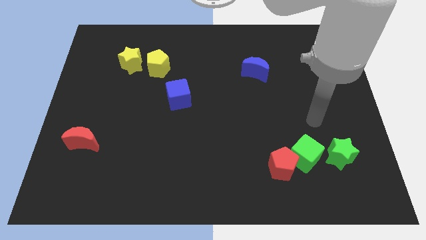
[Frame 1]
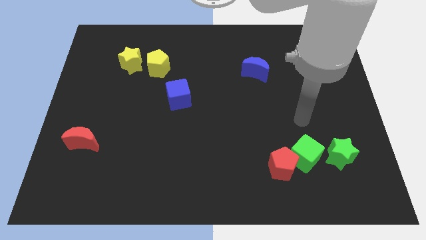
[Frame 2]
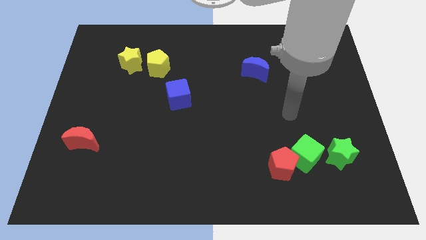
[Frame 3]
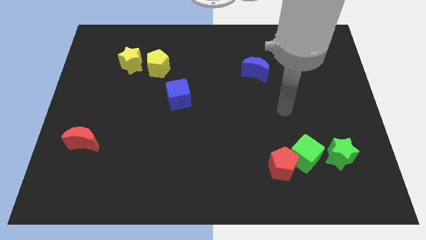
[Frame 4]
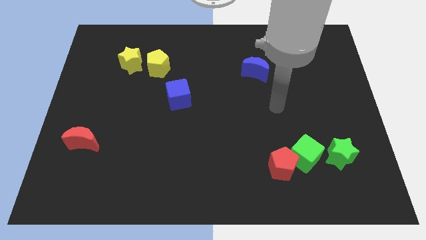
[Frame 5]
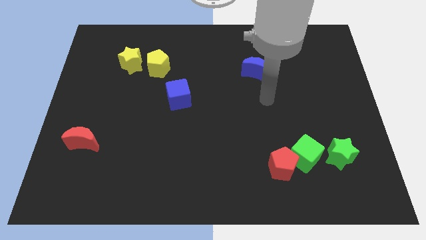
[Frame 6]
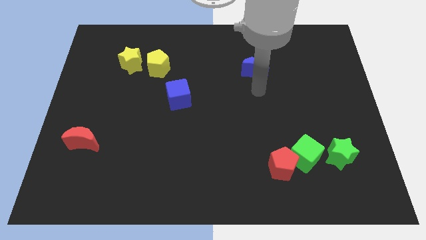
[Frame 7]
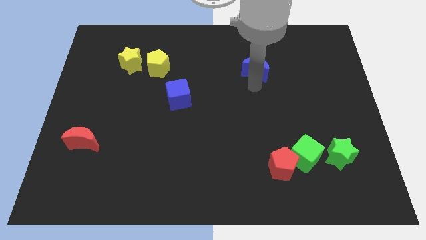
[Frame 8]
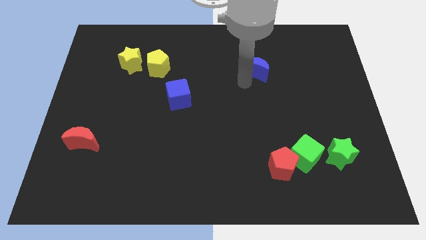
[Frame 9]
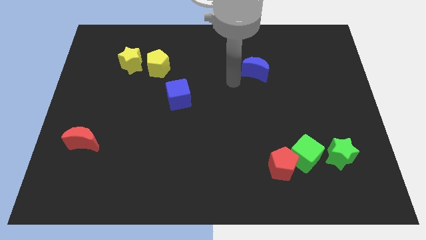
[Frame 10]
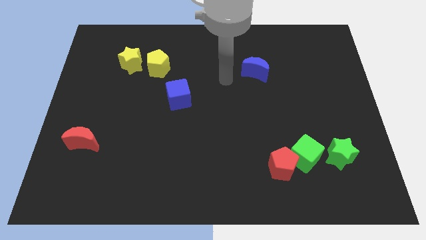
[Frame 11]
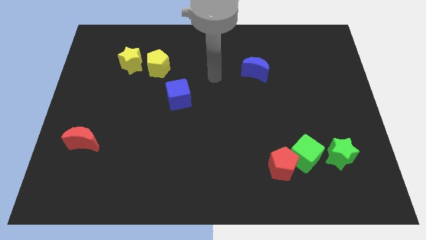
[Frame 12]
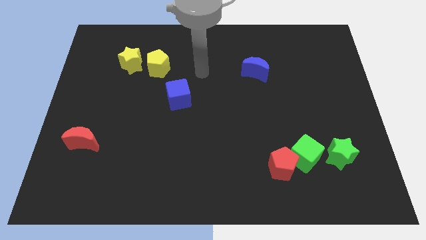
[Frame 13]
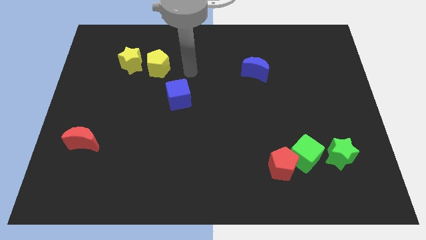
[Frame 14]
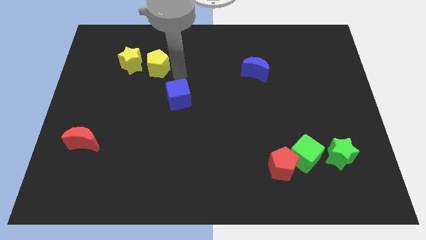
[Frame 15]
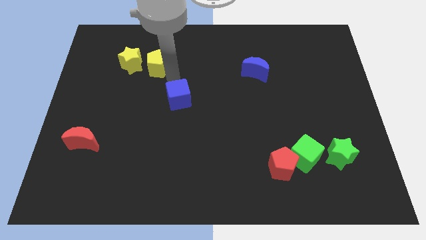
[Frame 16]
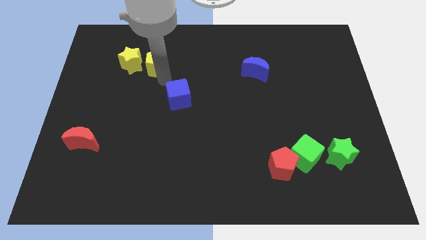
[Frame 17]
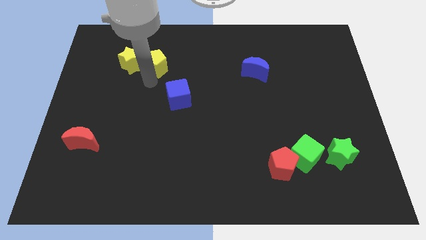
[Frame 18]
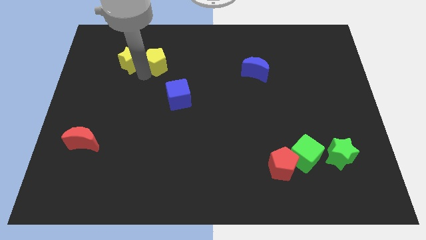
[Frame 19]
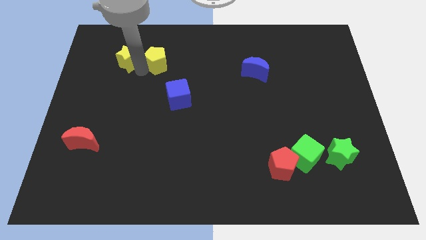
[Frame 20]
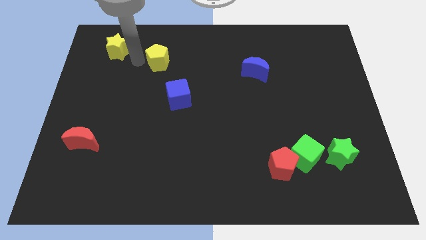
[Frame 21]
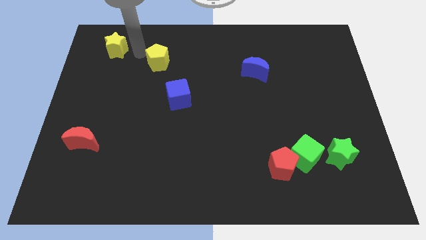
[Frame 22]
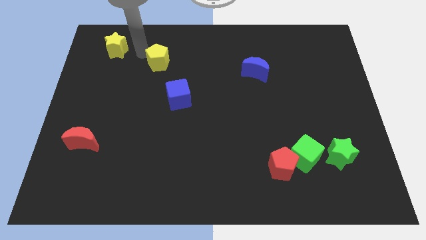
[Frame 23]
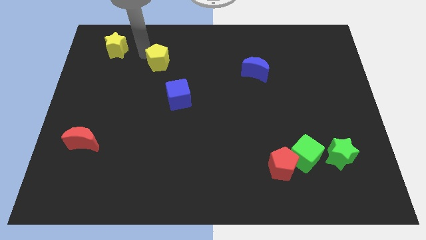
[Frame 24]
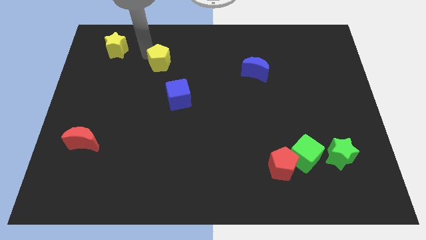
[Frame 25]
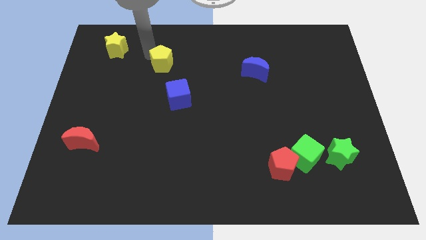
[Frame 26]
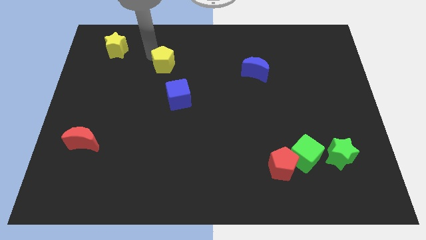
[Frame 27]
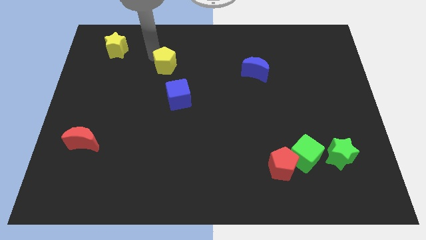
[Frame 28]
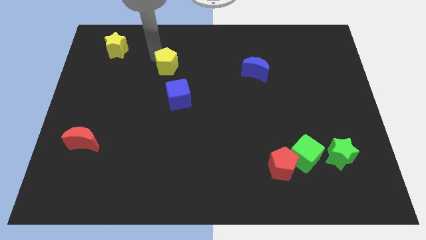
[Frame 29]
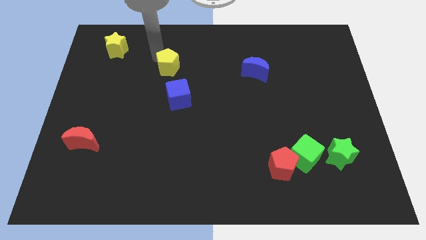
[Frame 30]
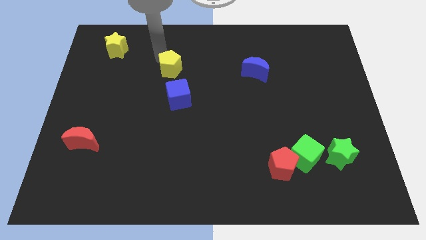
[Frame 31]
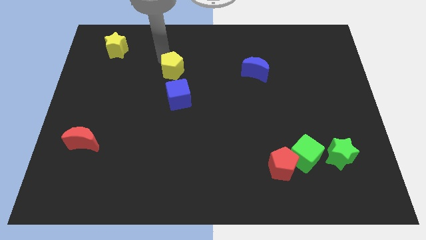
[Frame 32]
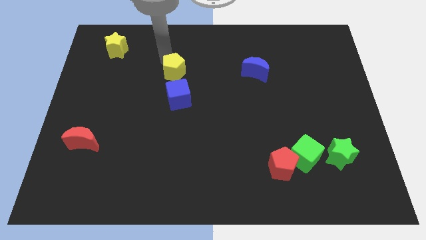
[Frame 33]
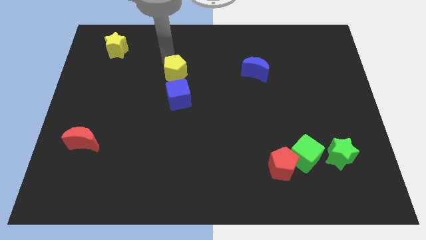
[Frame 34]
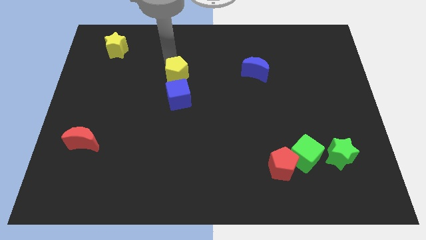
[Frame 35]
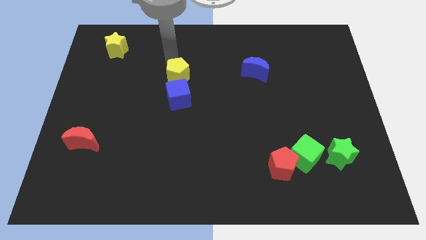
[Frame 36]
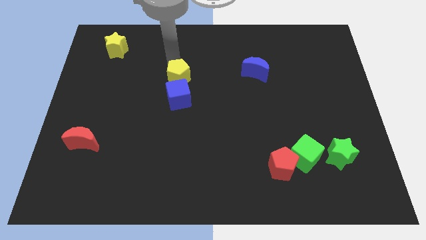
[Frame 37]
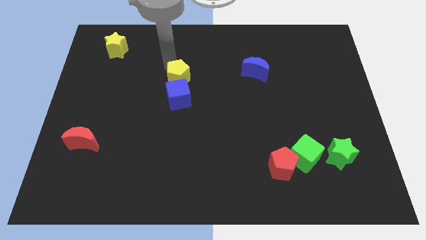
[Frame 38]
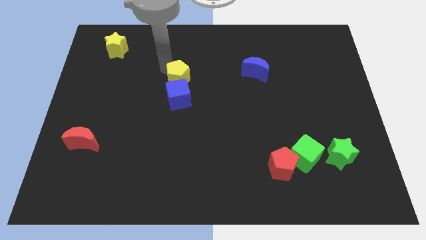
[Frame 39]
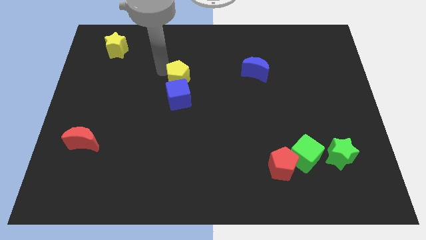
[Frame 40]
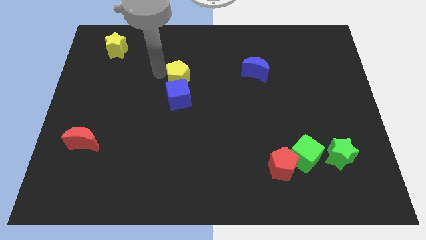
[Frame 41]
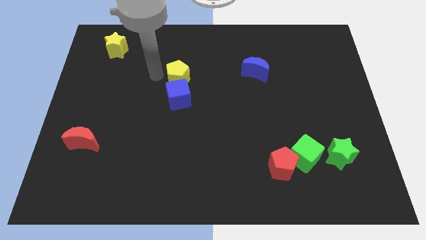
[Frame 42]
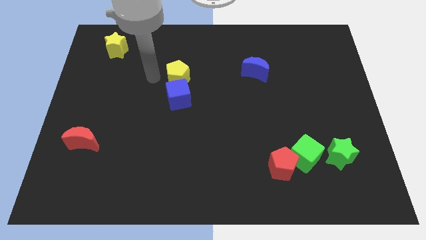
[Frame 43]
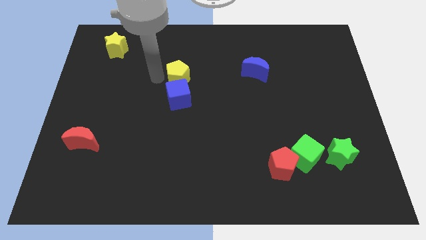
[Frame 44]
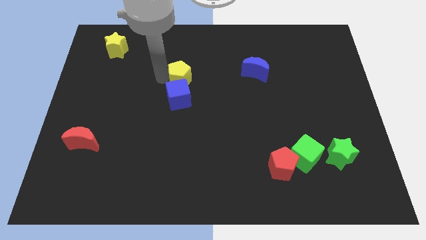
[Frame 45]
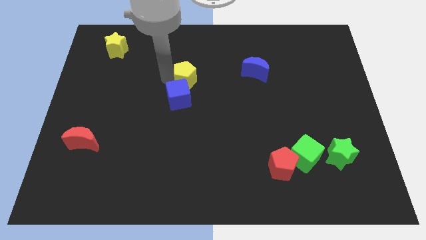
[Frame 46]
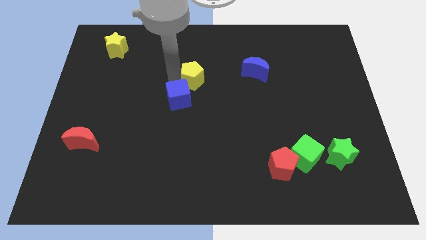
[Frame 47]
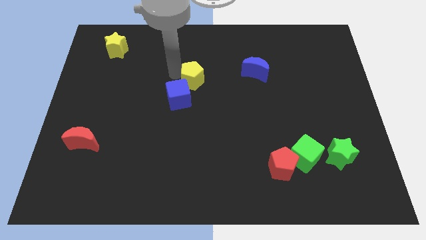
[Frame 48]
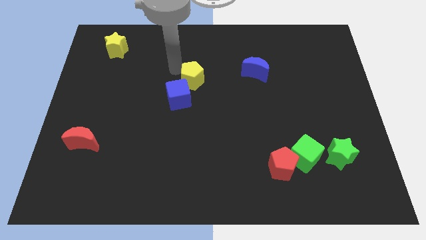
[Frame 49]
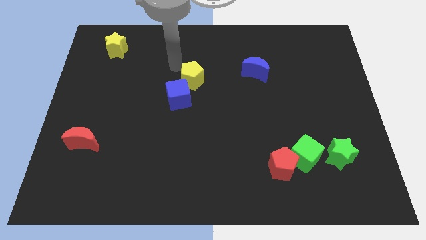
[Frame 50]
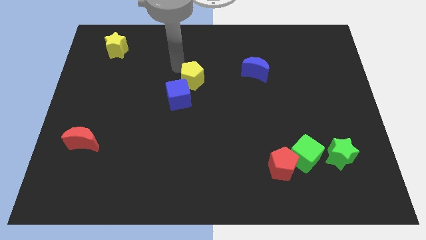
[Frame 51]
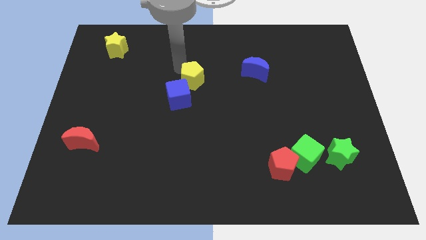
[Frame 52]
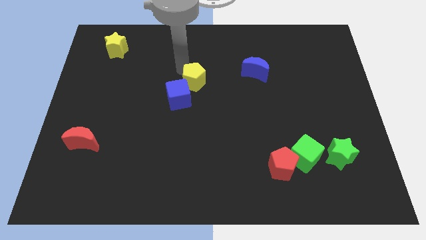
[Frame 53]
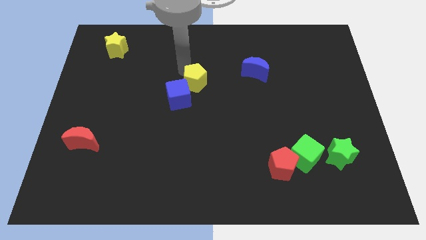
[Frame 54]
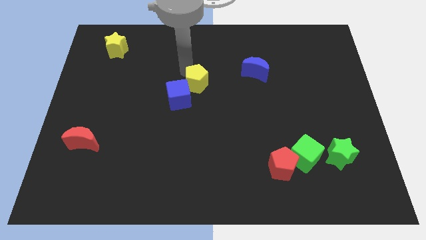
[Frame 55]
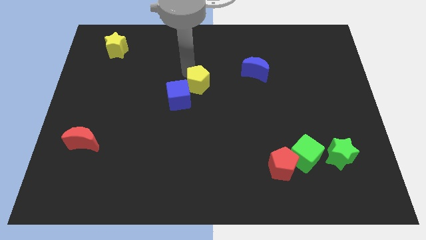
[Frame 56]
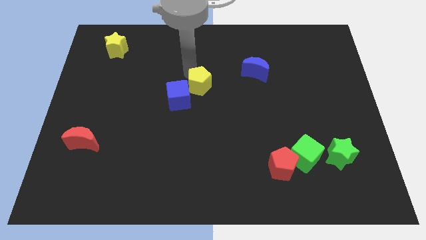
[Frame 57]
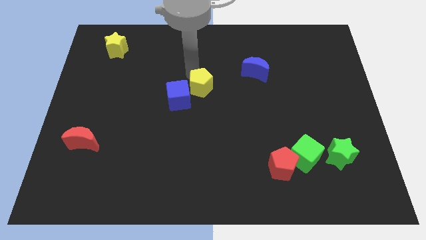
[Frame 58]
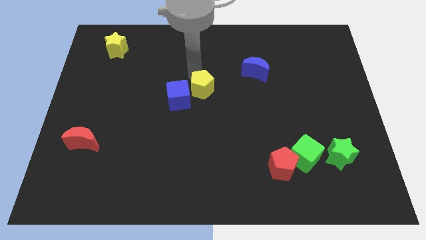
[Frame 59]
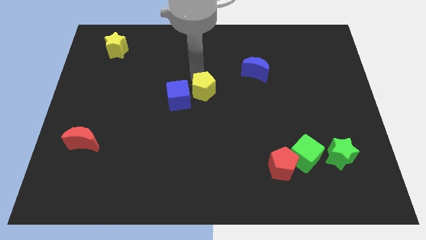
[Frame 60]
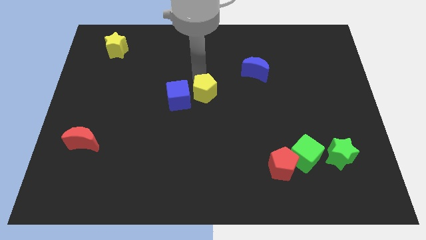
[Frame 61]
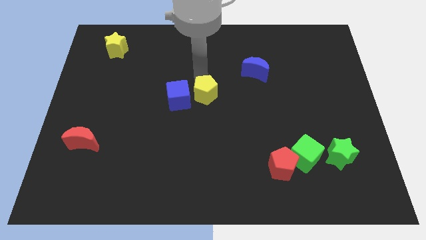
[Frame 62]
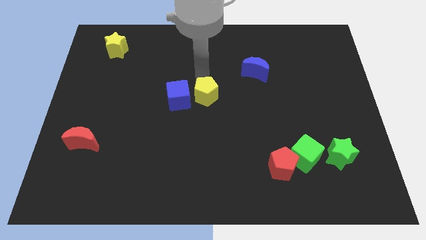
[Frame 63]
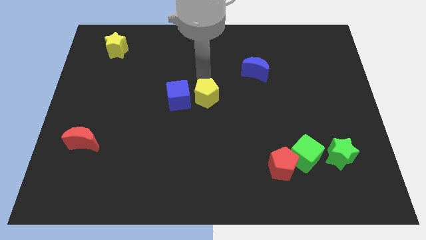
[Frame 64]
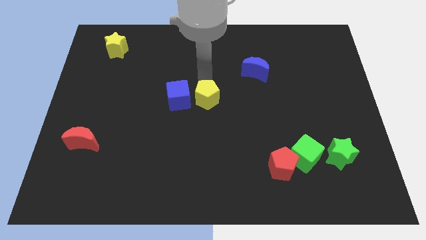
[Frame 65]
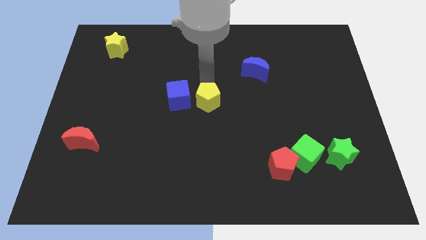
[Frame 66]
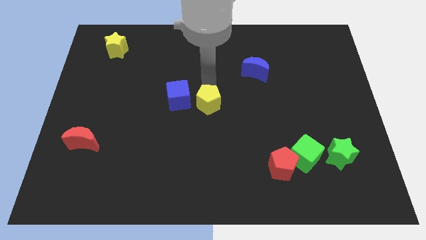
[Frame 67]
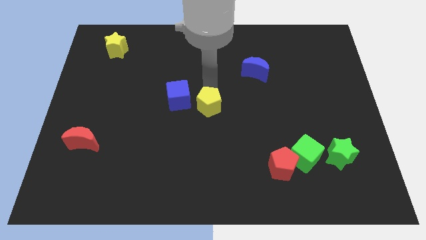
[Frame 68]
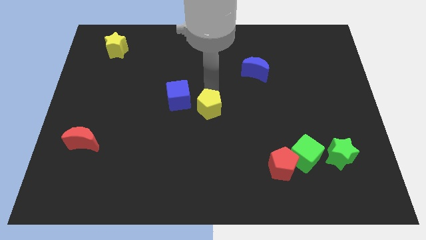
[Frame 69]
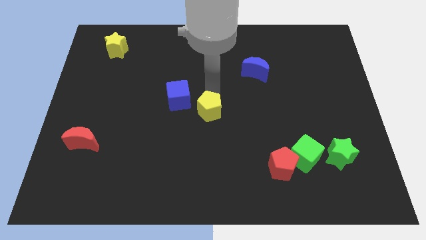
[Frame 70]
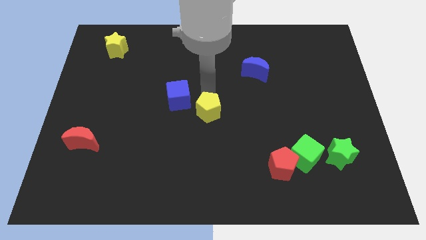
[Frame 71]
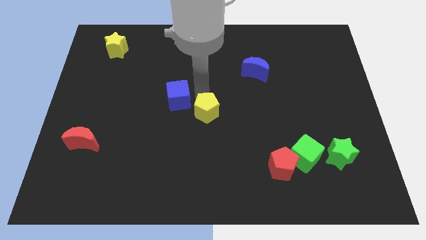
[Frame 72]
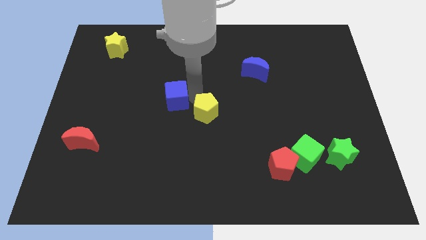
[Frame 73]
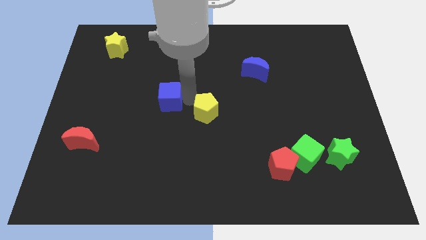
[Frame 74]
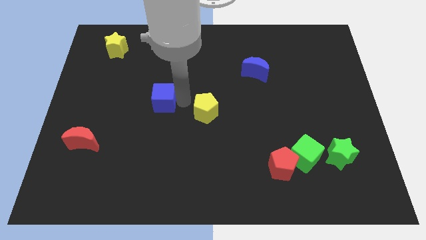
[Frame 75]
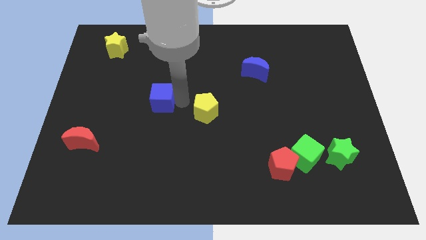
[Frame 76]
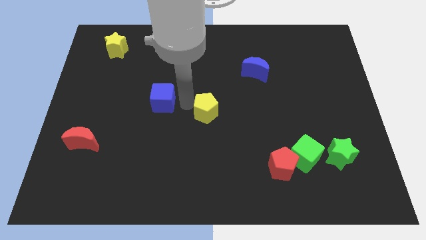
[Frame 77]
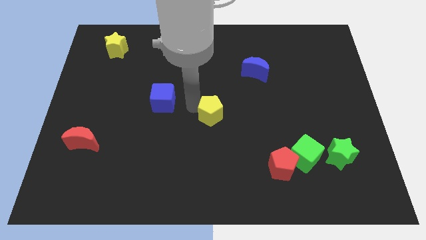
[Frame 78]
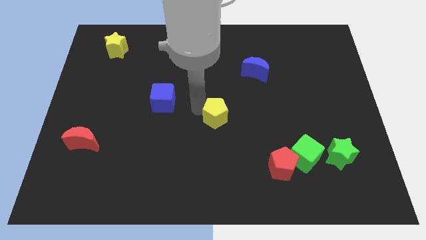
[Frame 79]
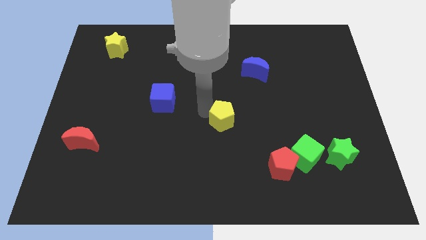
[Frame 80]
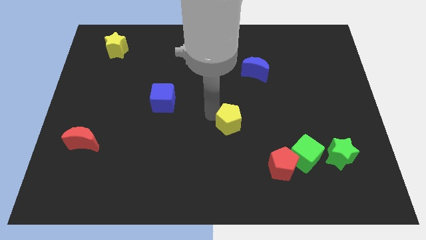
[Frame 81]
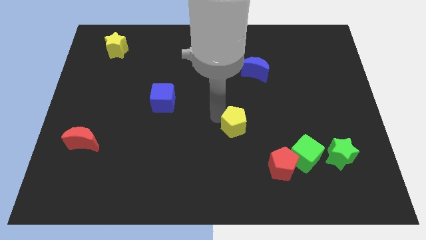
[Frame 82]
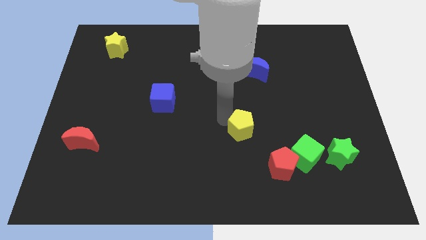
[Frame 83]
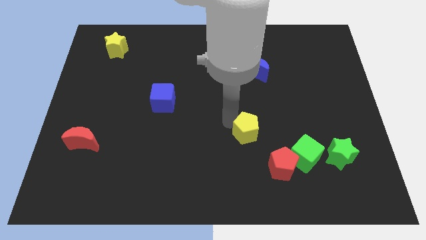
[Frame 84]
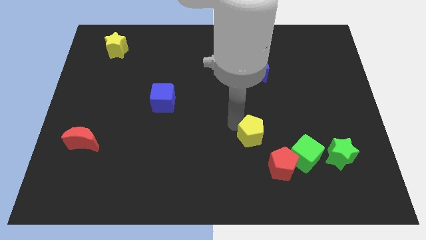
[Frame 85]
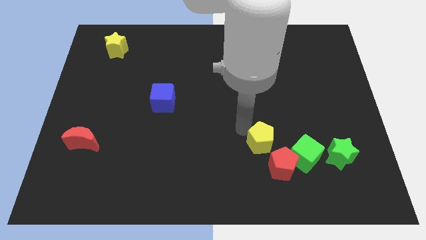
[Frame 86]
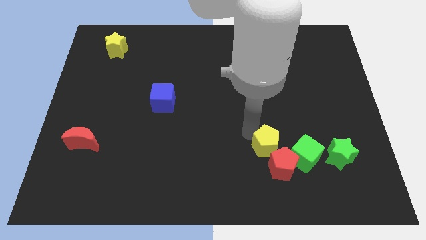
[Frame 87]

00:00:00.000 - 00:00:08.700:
move the yellow pentagon next to the red pentagon
